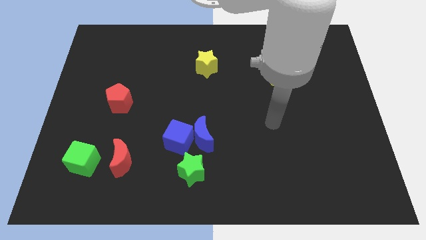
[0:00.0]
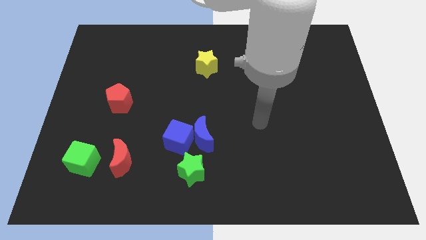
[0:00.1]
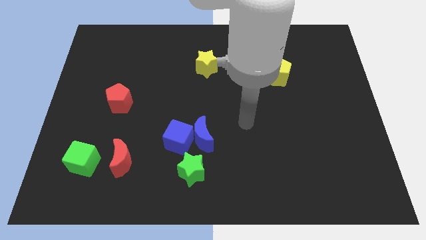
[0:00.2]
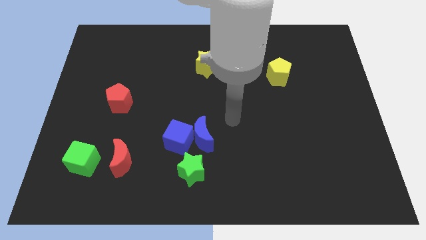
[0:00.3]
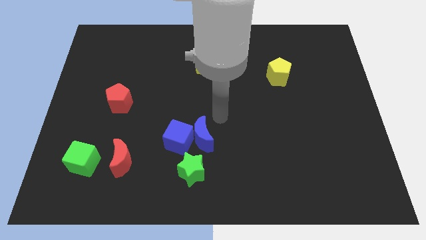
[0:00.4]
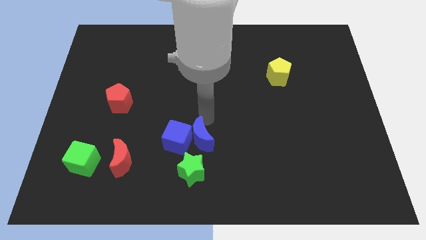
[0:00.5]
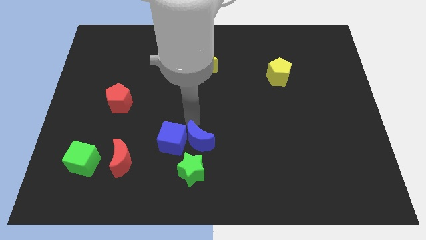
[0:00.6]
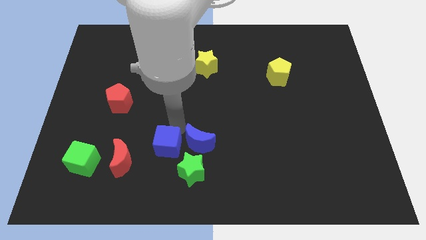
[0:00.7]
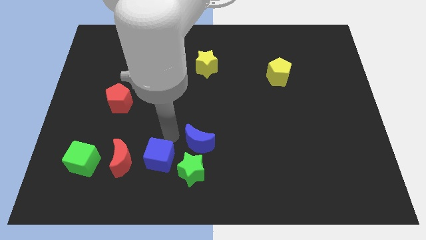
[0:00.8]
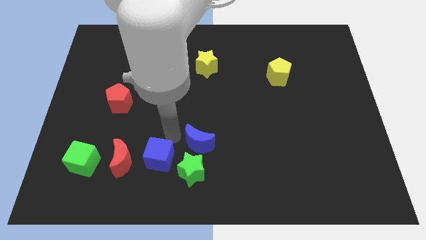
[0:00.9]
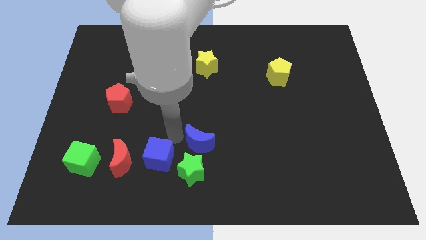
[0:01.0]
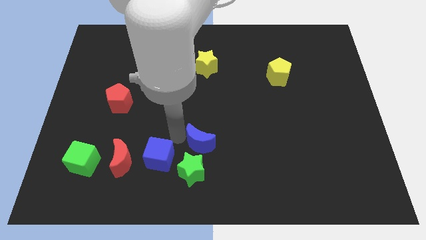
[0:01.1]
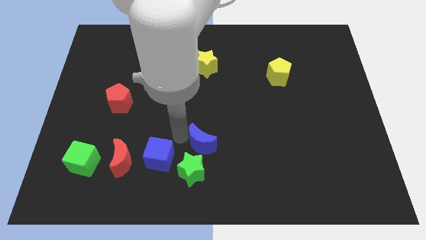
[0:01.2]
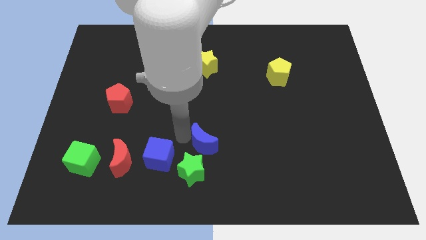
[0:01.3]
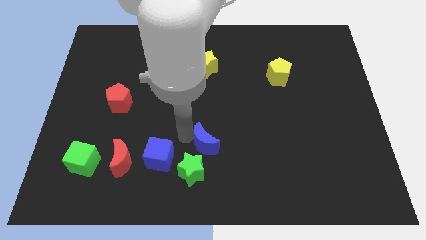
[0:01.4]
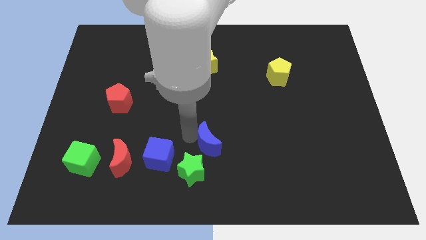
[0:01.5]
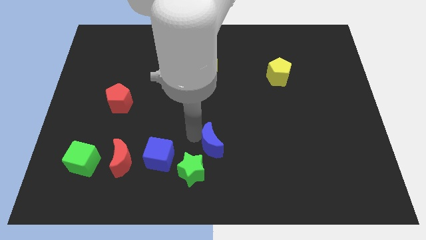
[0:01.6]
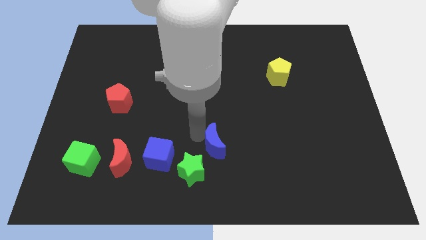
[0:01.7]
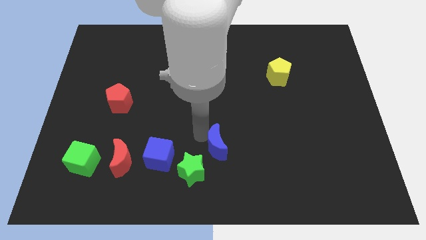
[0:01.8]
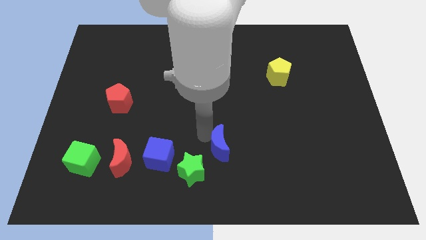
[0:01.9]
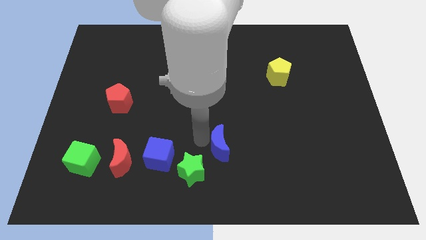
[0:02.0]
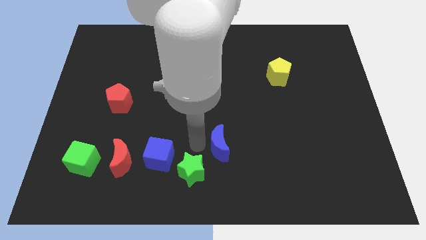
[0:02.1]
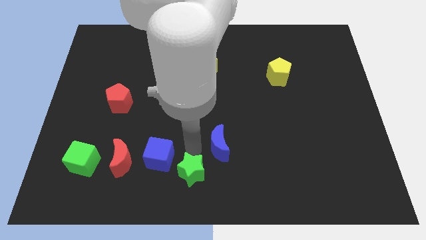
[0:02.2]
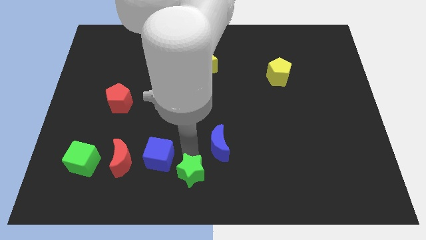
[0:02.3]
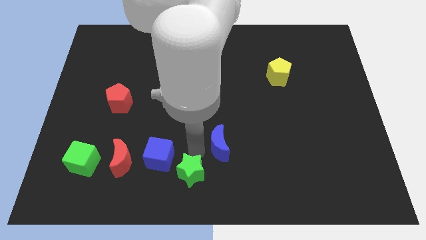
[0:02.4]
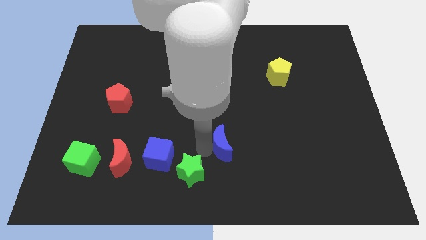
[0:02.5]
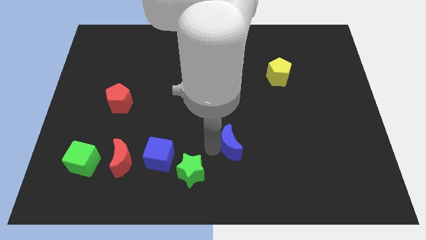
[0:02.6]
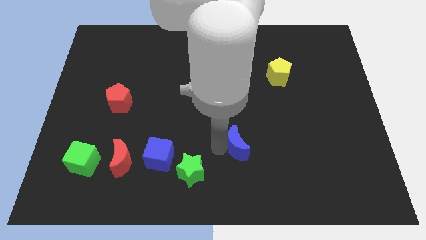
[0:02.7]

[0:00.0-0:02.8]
move the blue moon to the right a little

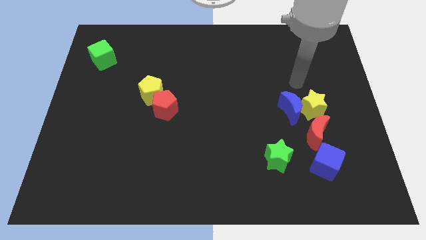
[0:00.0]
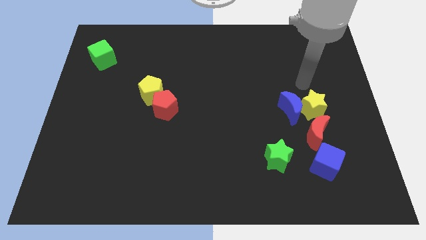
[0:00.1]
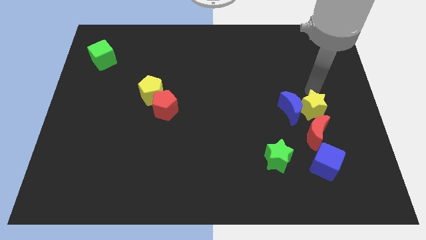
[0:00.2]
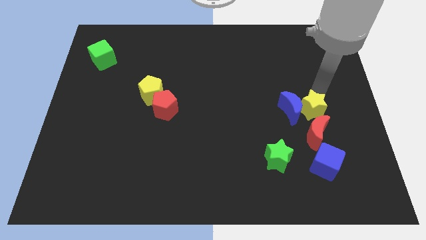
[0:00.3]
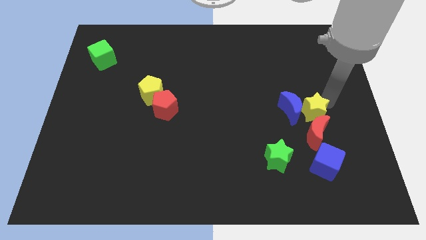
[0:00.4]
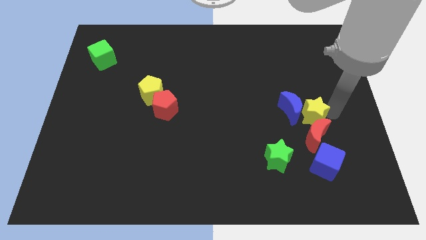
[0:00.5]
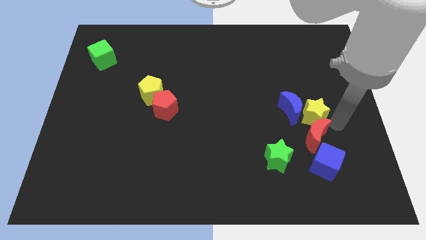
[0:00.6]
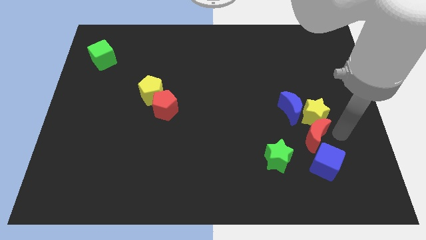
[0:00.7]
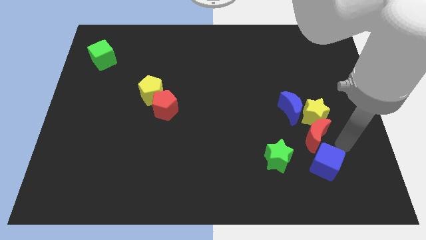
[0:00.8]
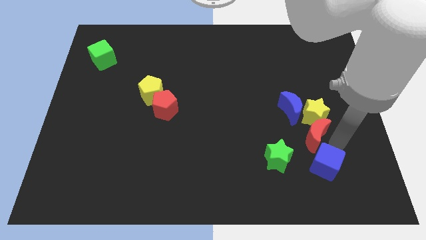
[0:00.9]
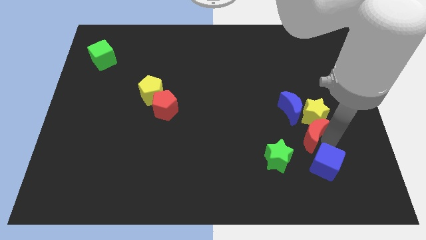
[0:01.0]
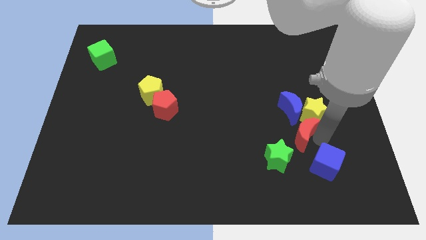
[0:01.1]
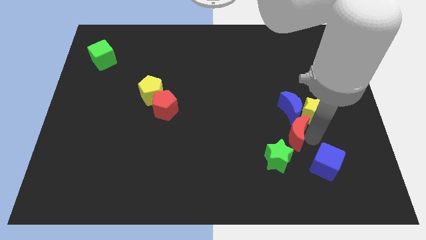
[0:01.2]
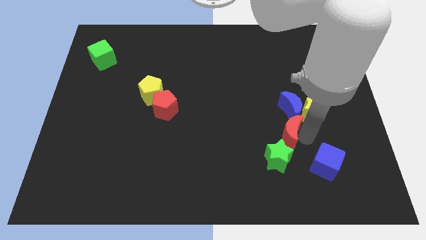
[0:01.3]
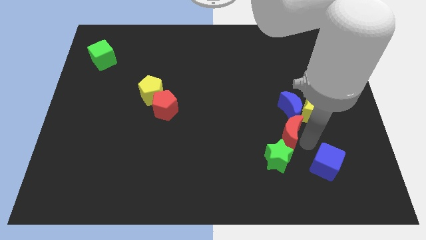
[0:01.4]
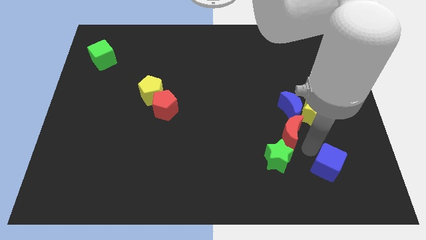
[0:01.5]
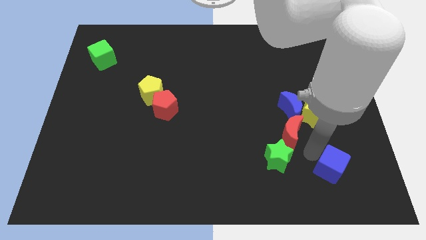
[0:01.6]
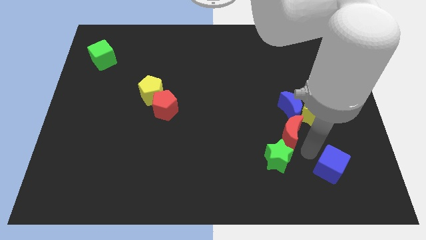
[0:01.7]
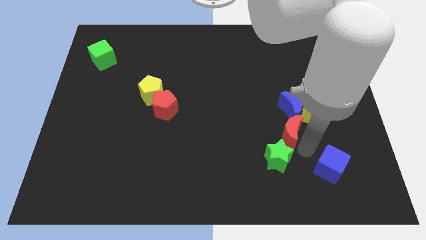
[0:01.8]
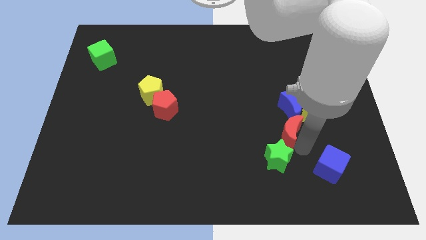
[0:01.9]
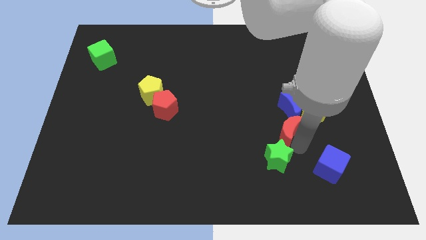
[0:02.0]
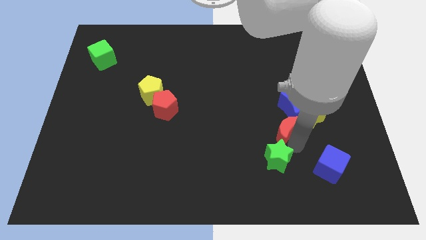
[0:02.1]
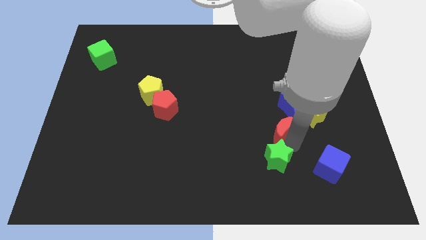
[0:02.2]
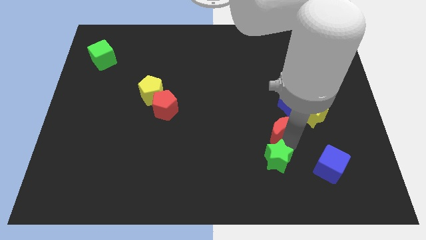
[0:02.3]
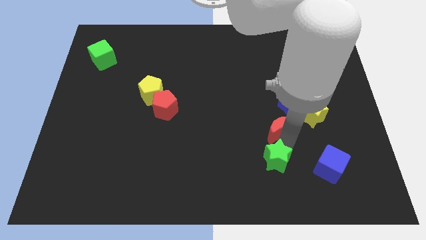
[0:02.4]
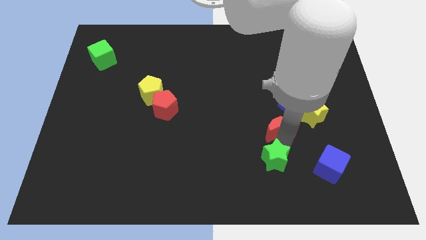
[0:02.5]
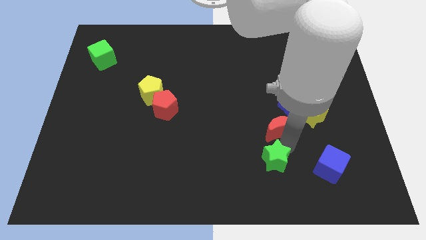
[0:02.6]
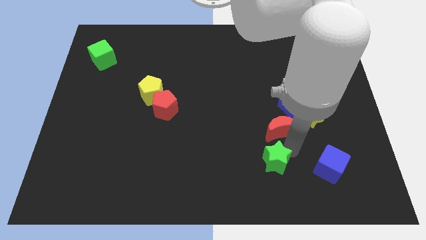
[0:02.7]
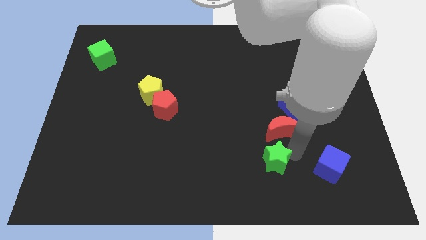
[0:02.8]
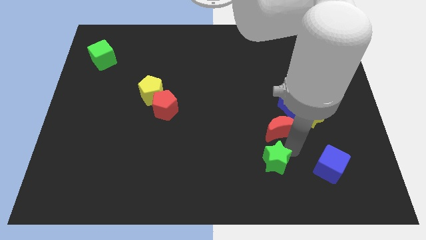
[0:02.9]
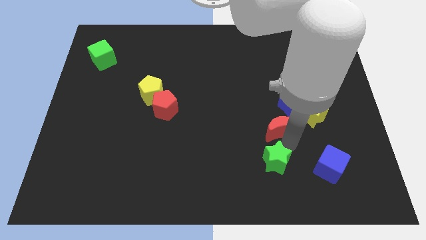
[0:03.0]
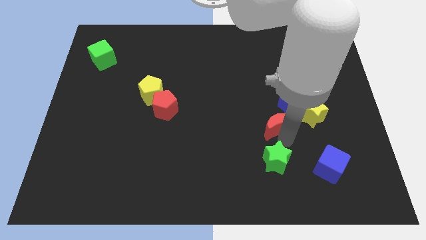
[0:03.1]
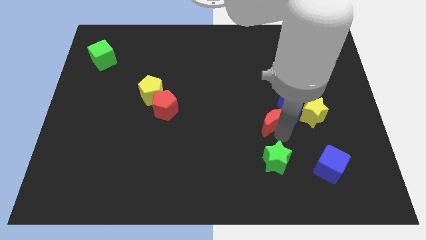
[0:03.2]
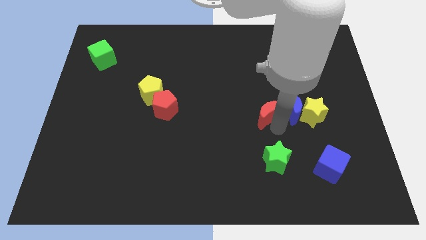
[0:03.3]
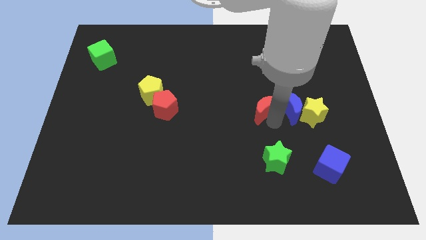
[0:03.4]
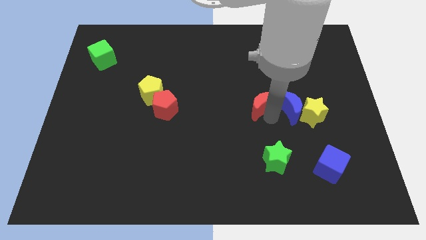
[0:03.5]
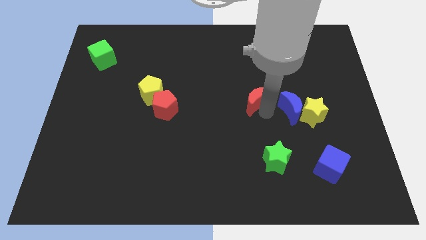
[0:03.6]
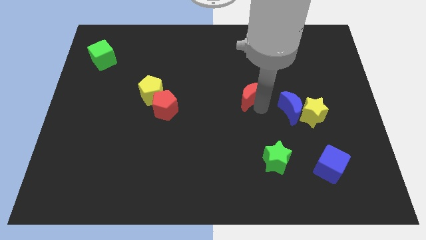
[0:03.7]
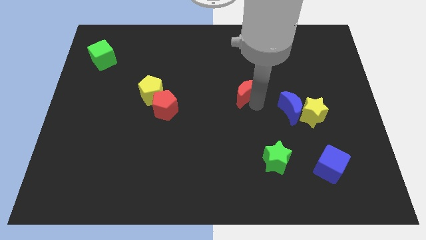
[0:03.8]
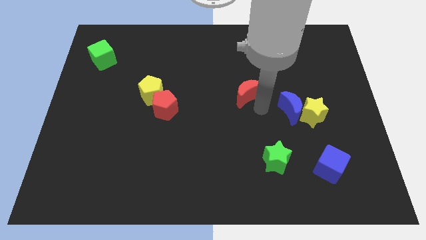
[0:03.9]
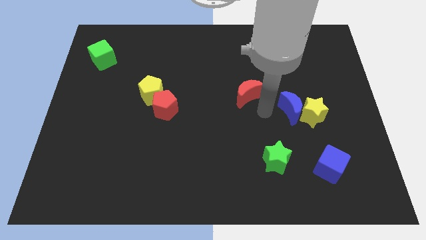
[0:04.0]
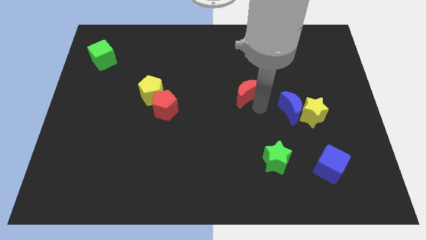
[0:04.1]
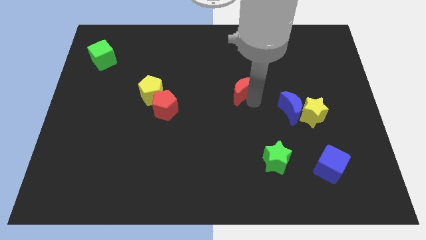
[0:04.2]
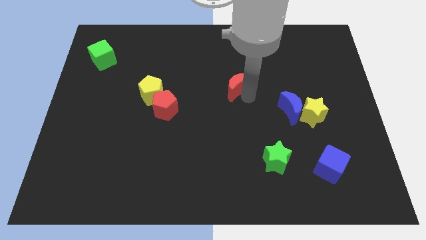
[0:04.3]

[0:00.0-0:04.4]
move the red moon up and left diagonally

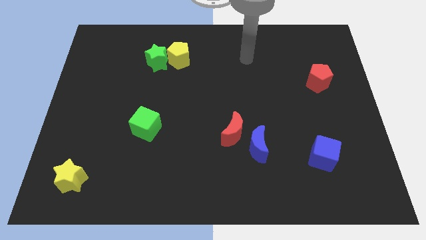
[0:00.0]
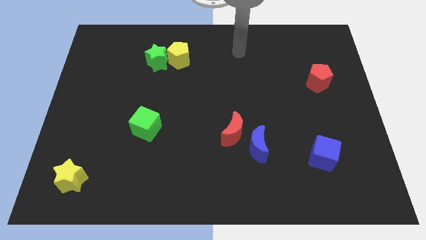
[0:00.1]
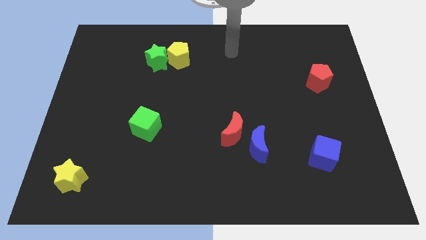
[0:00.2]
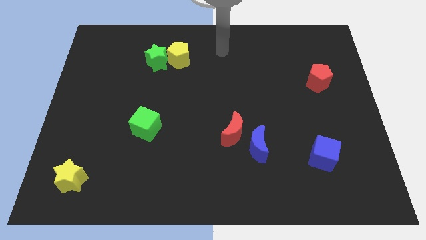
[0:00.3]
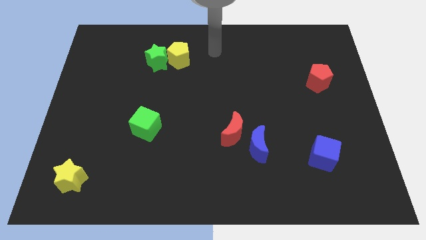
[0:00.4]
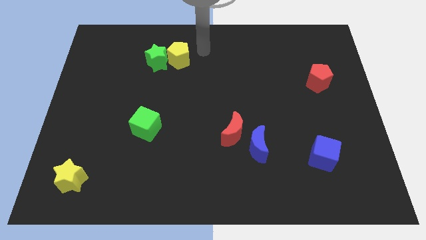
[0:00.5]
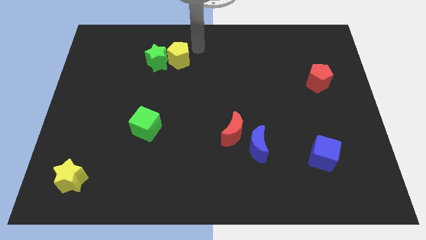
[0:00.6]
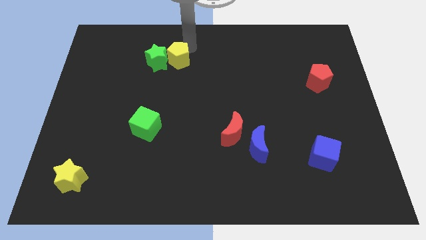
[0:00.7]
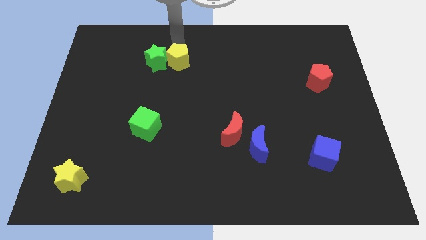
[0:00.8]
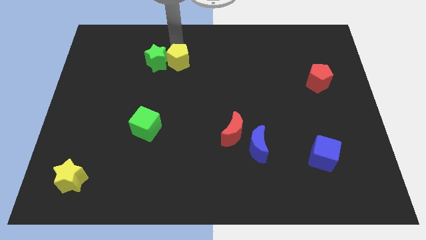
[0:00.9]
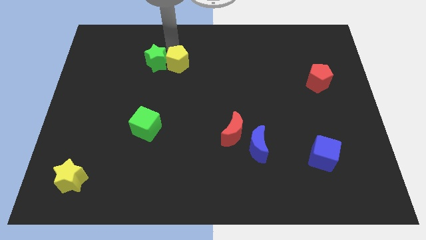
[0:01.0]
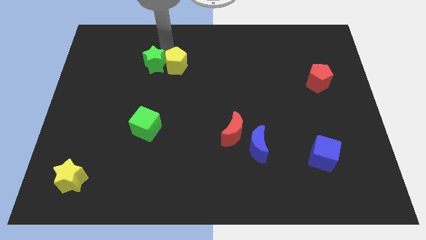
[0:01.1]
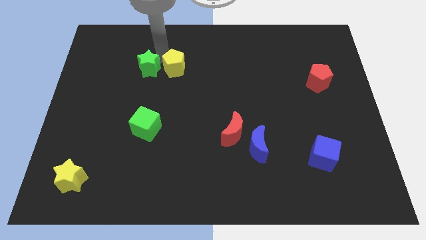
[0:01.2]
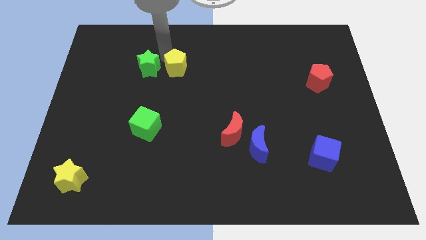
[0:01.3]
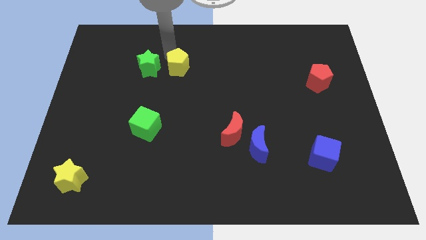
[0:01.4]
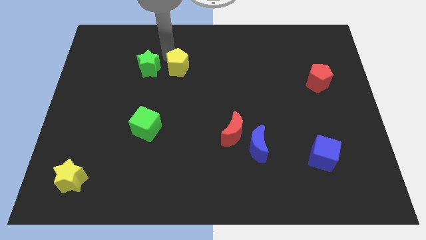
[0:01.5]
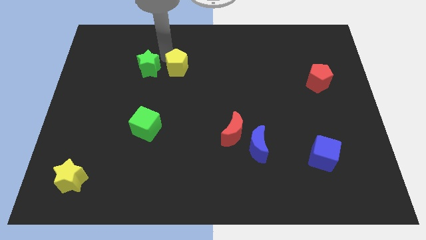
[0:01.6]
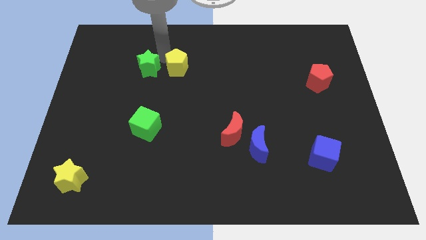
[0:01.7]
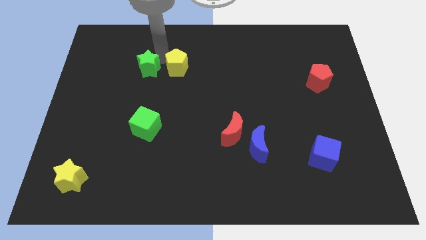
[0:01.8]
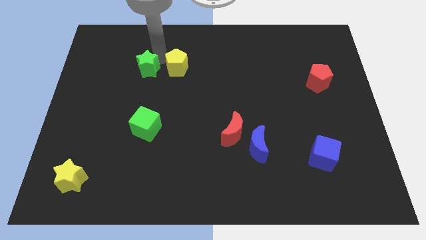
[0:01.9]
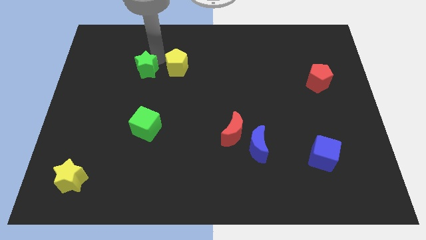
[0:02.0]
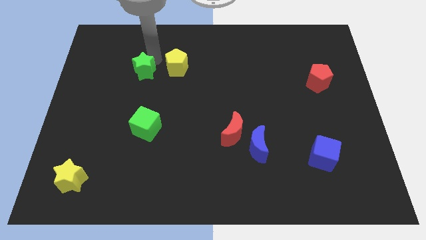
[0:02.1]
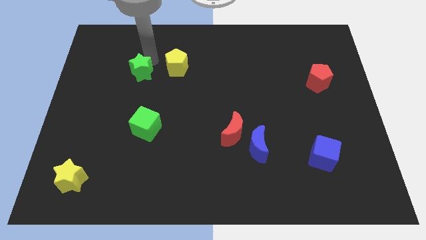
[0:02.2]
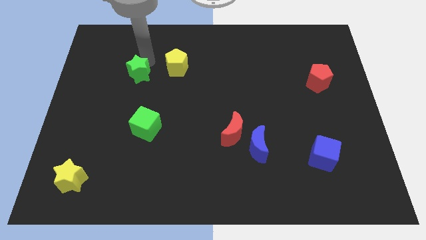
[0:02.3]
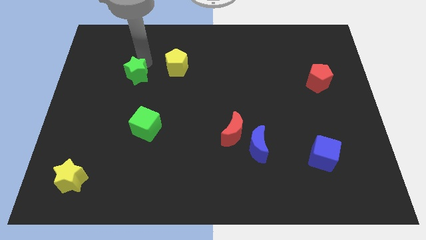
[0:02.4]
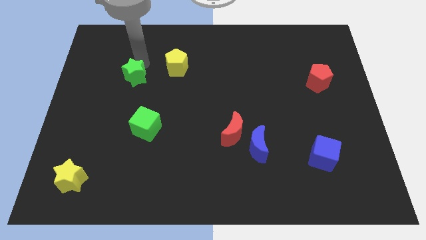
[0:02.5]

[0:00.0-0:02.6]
push the green star a little bit downwards and left diagonally
